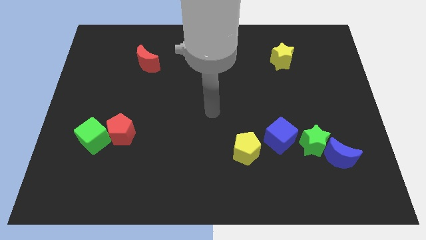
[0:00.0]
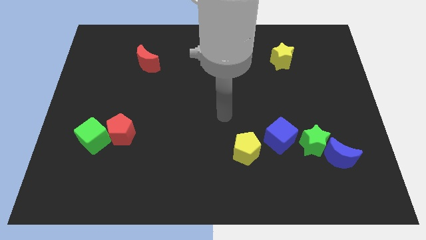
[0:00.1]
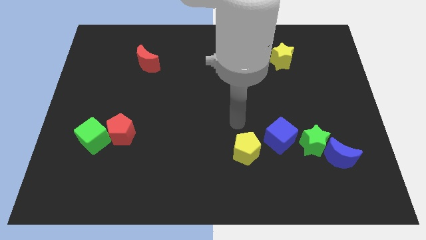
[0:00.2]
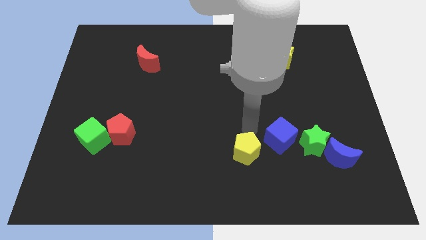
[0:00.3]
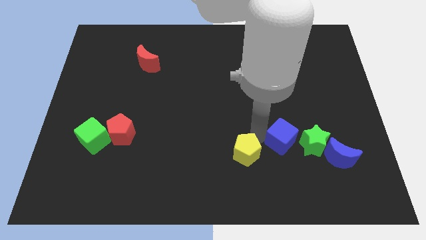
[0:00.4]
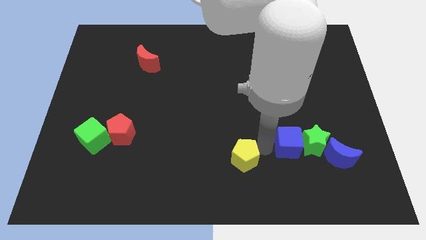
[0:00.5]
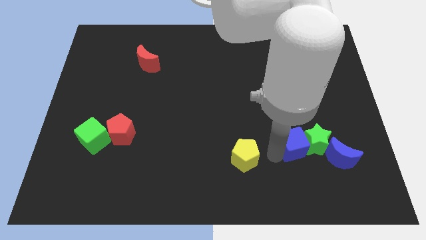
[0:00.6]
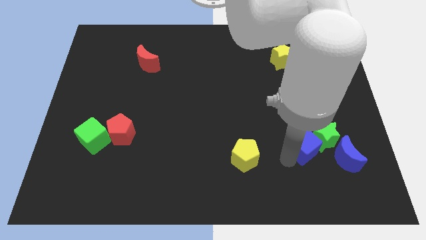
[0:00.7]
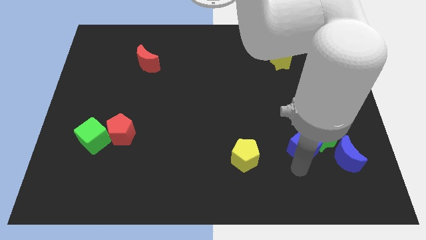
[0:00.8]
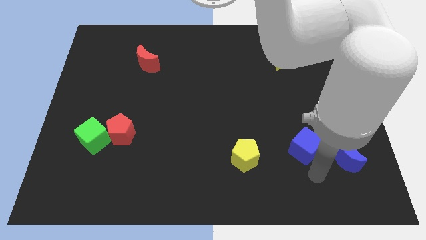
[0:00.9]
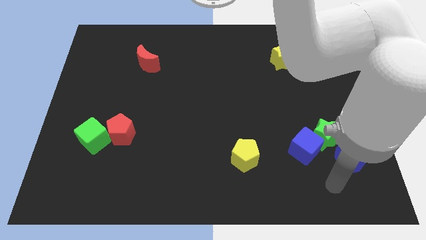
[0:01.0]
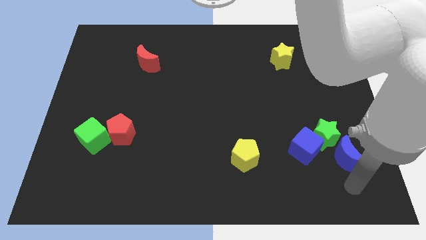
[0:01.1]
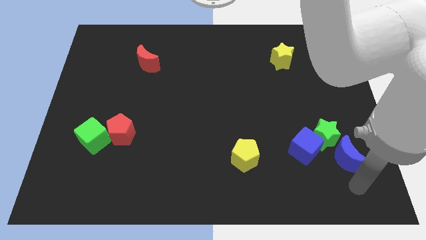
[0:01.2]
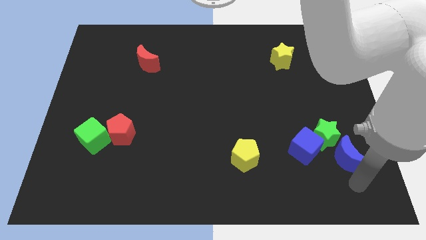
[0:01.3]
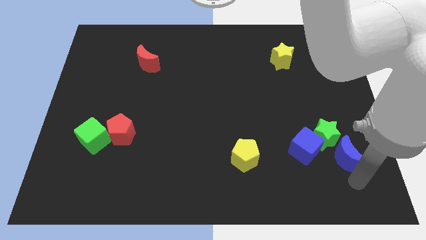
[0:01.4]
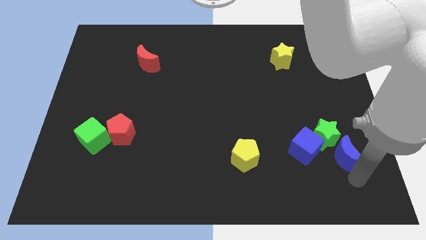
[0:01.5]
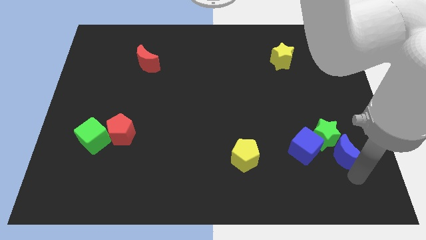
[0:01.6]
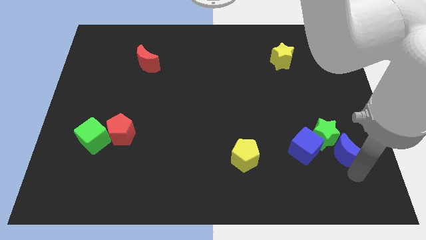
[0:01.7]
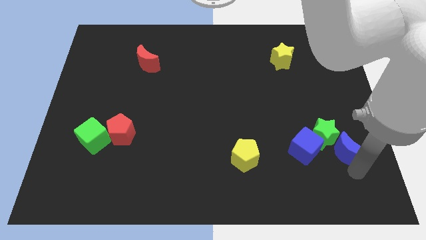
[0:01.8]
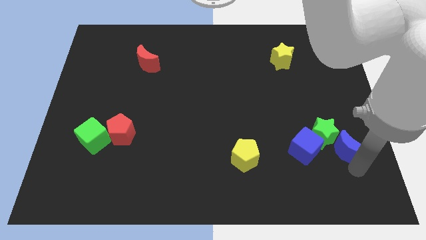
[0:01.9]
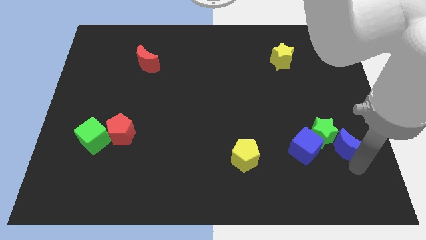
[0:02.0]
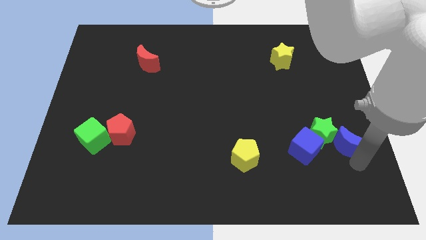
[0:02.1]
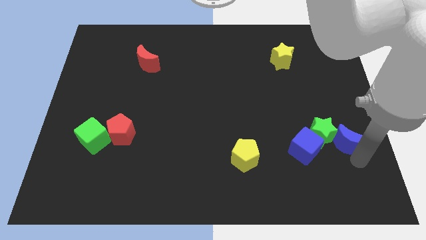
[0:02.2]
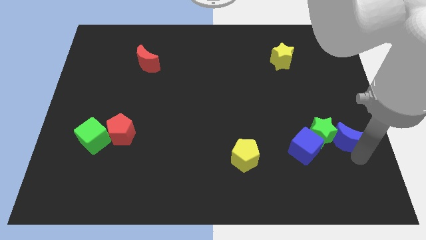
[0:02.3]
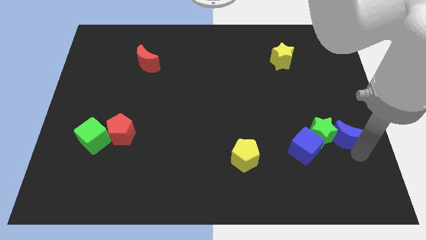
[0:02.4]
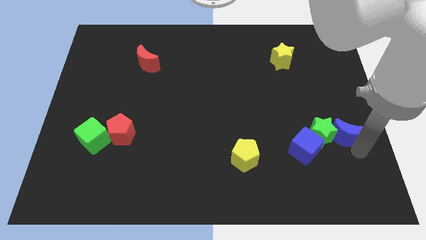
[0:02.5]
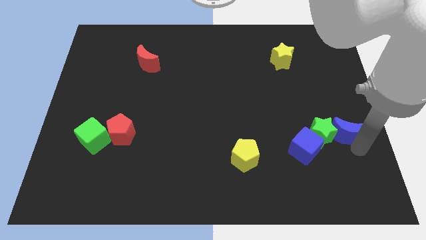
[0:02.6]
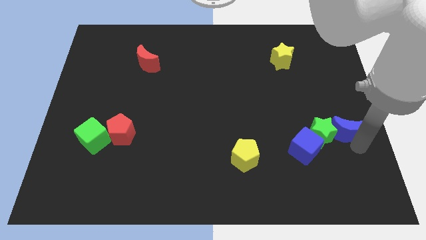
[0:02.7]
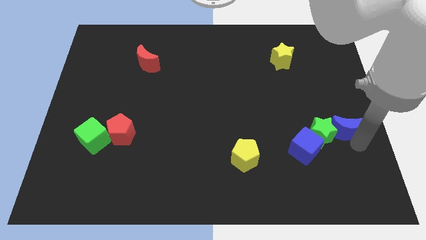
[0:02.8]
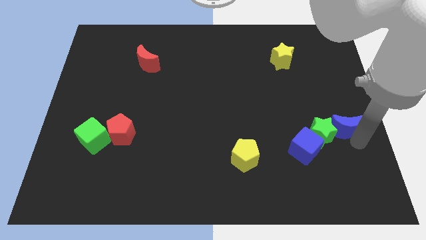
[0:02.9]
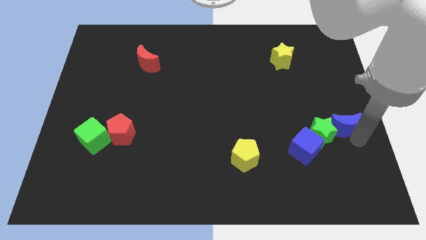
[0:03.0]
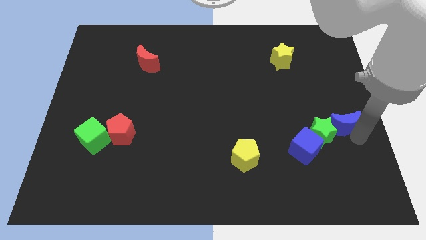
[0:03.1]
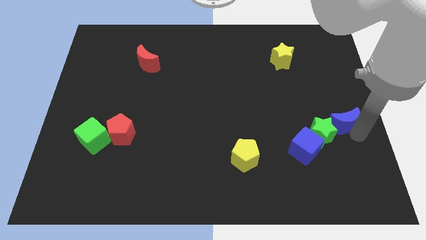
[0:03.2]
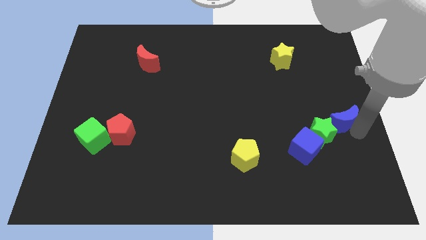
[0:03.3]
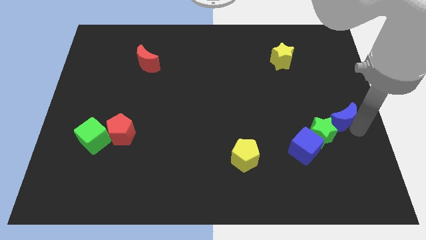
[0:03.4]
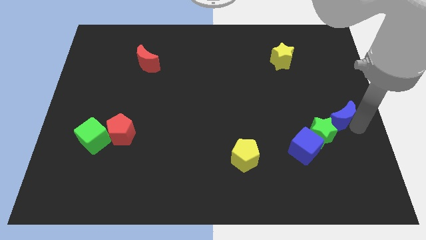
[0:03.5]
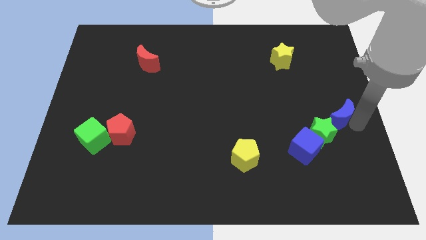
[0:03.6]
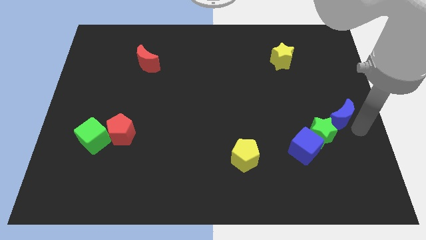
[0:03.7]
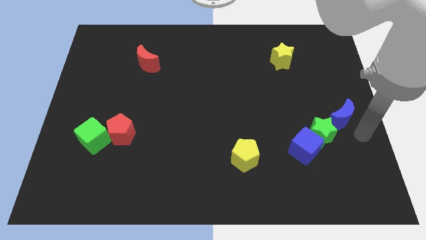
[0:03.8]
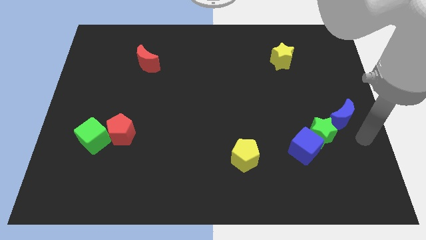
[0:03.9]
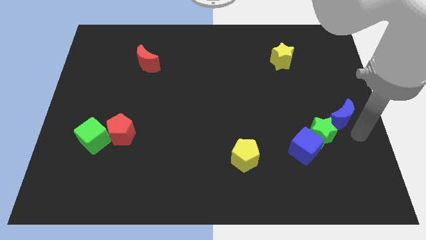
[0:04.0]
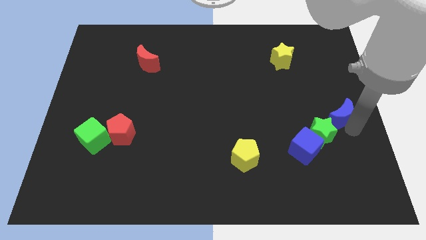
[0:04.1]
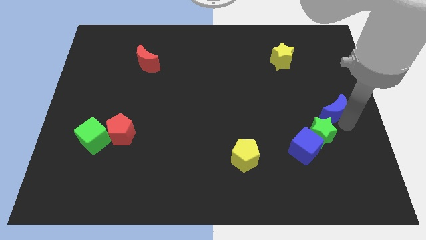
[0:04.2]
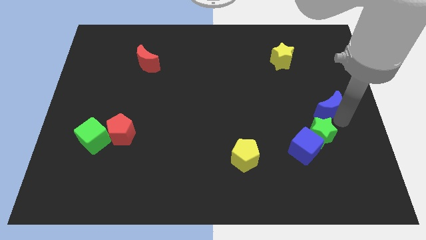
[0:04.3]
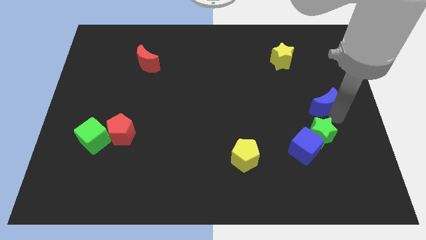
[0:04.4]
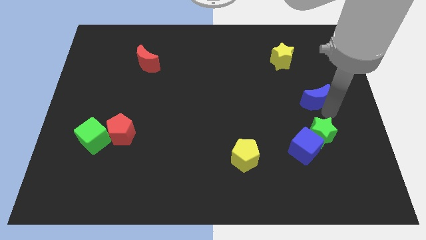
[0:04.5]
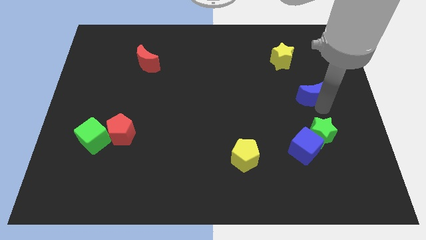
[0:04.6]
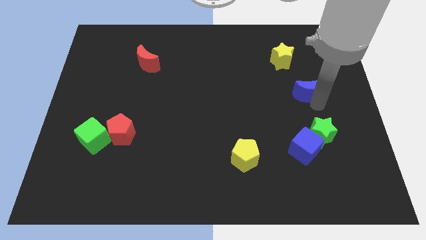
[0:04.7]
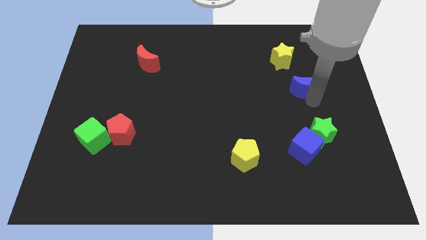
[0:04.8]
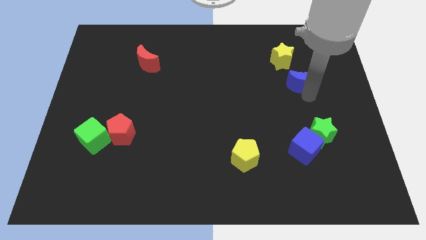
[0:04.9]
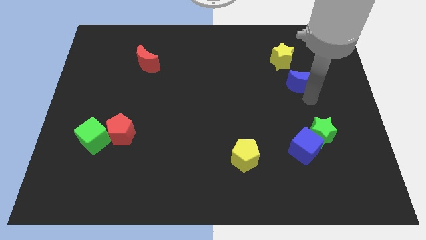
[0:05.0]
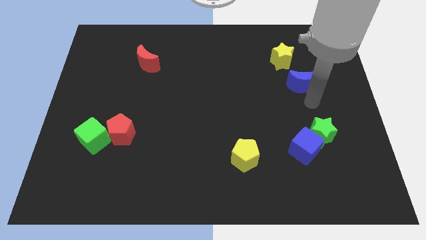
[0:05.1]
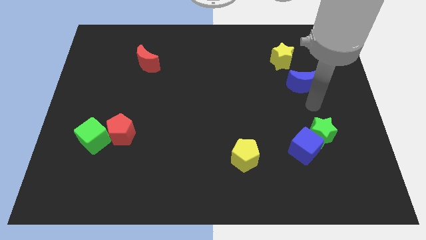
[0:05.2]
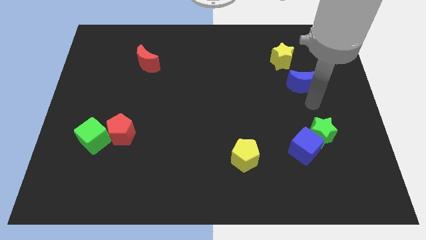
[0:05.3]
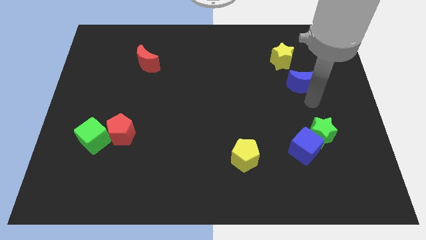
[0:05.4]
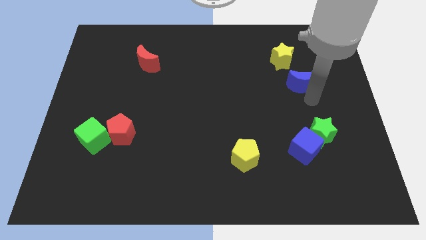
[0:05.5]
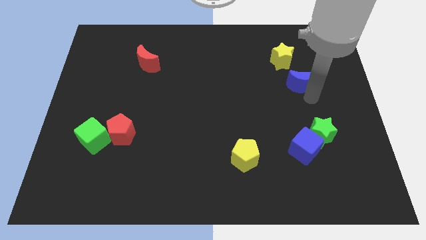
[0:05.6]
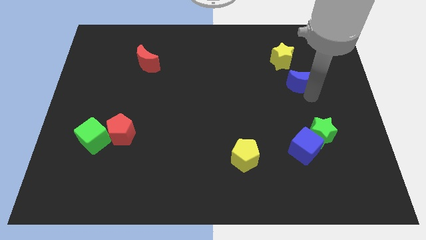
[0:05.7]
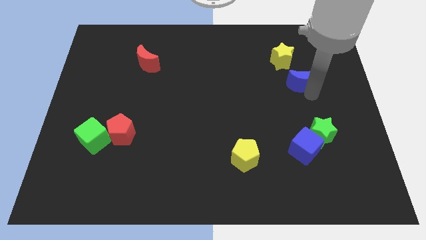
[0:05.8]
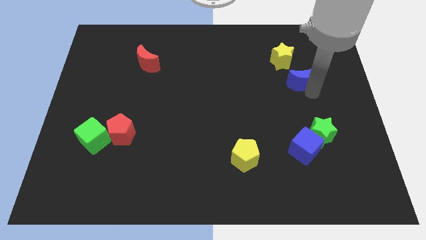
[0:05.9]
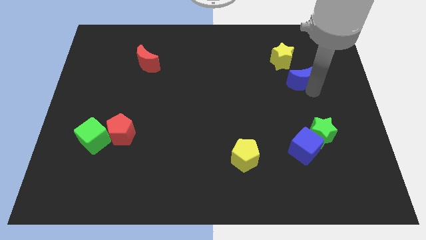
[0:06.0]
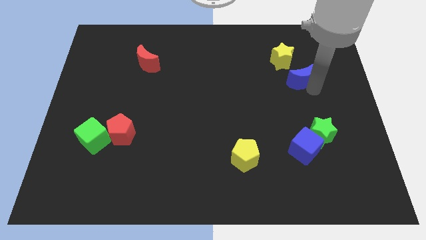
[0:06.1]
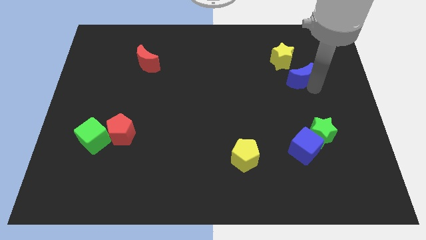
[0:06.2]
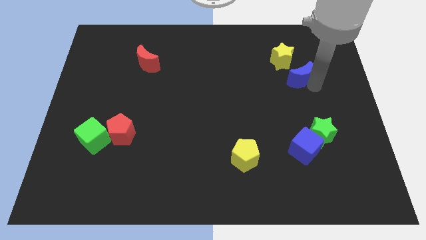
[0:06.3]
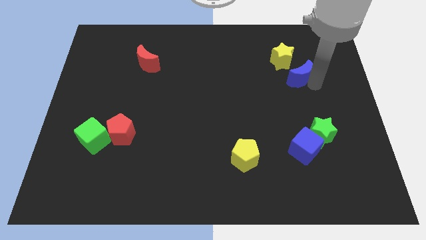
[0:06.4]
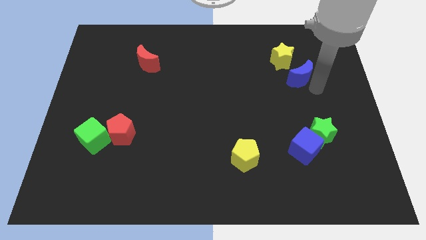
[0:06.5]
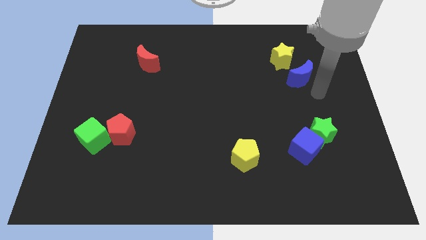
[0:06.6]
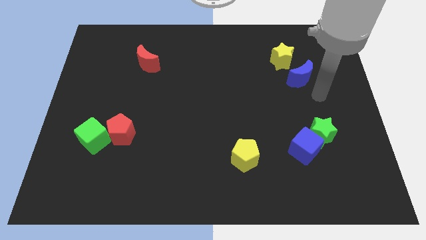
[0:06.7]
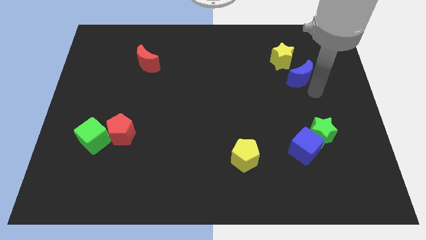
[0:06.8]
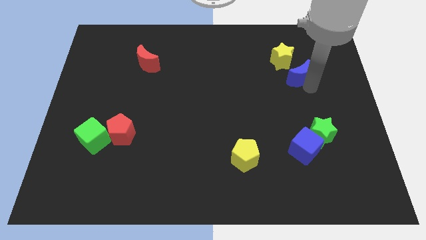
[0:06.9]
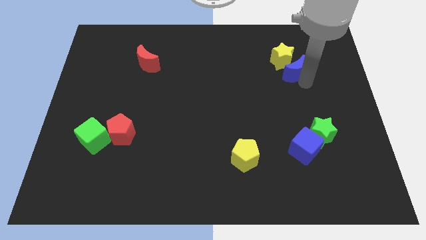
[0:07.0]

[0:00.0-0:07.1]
put the blue moon to the yellow star
